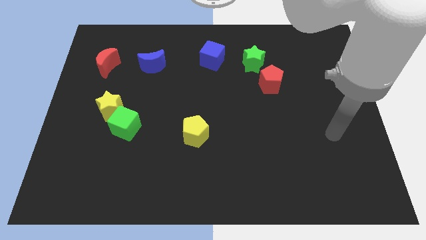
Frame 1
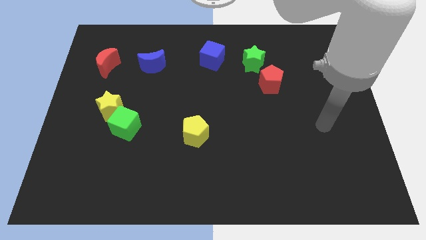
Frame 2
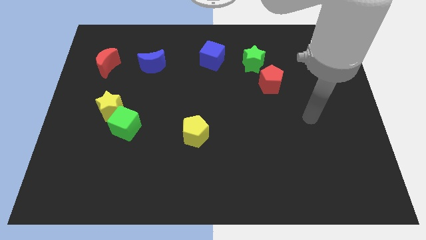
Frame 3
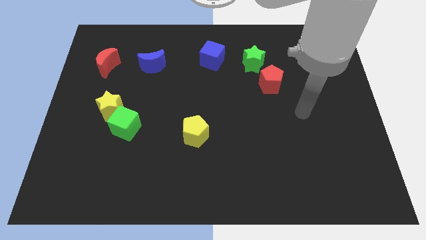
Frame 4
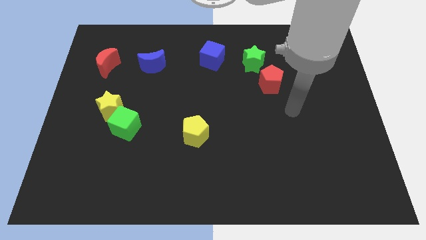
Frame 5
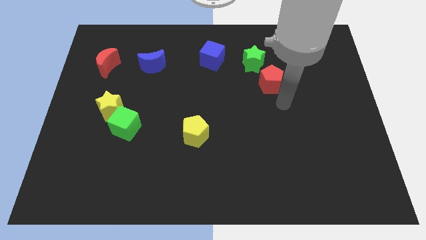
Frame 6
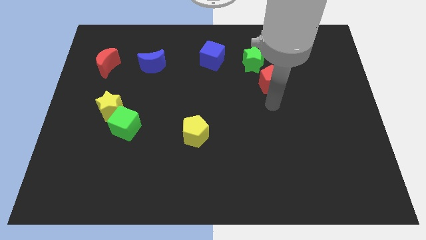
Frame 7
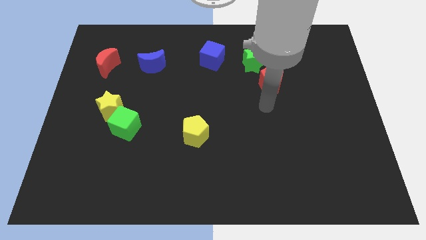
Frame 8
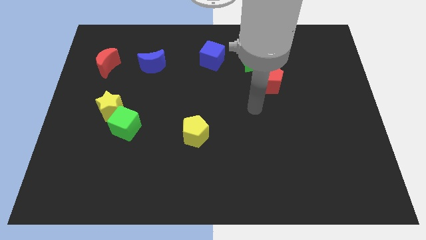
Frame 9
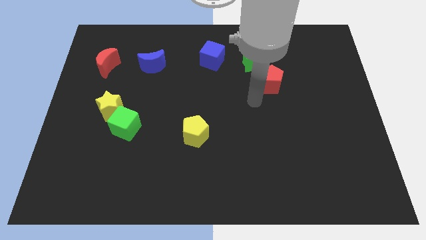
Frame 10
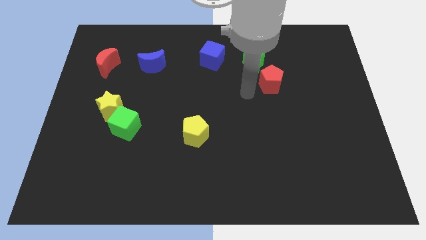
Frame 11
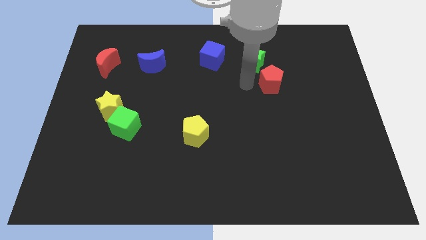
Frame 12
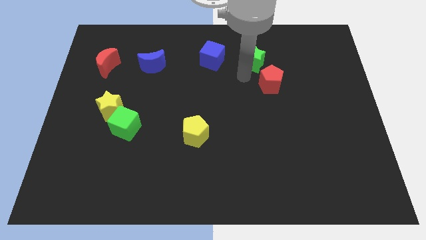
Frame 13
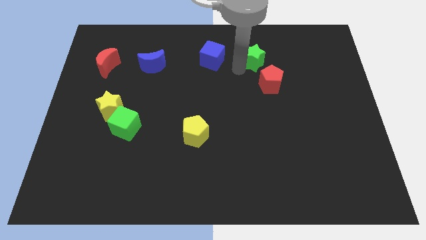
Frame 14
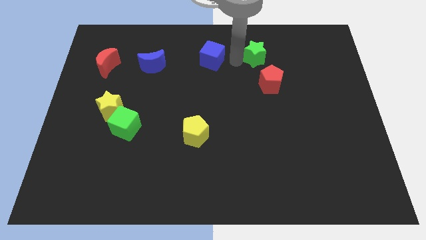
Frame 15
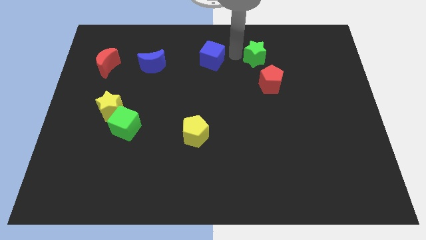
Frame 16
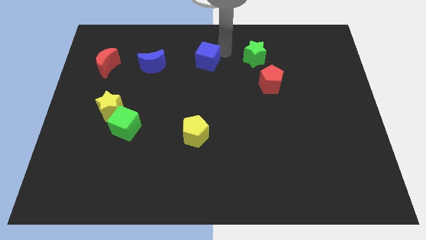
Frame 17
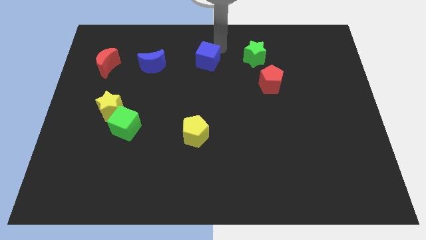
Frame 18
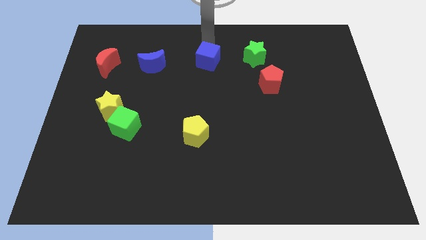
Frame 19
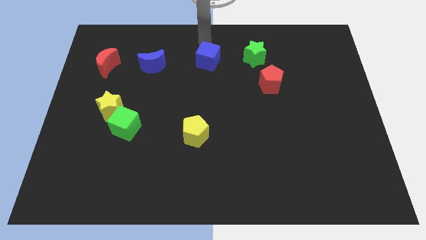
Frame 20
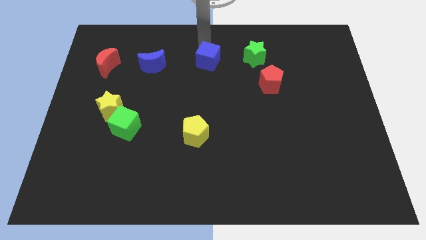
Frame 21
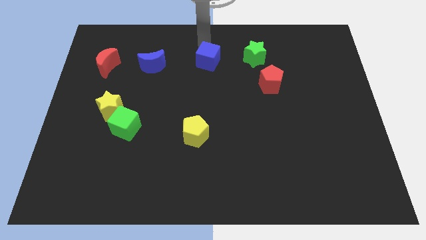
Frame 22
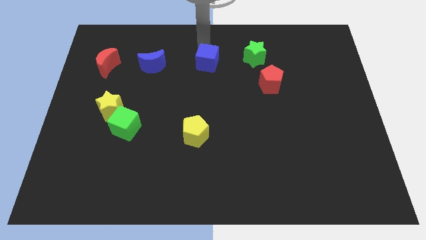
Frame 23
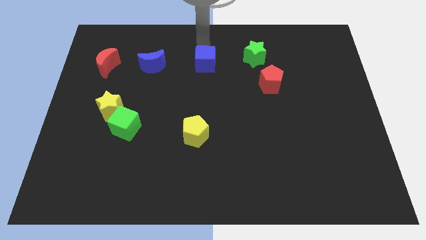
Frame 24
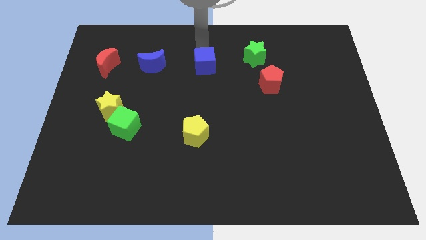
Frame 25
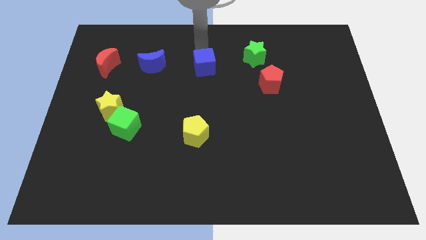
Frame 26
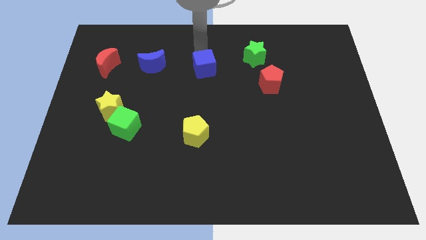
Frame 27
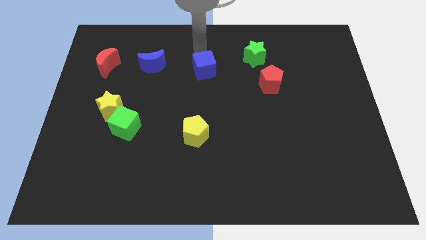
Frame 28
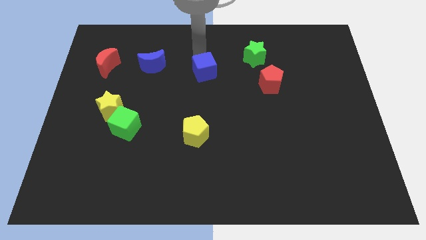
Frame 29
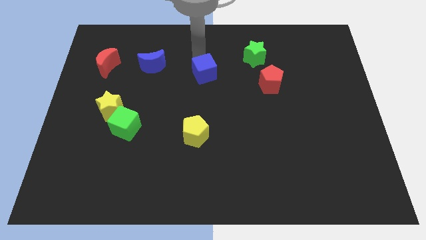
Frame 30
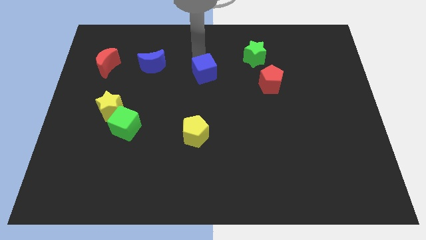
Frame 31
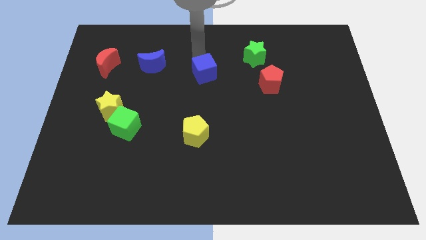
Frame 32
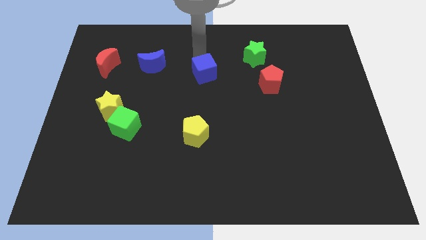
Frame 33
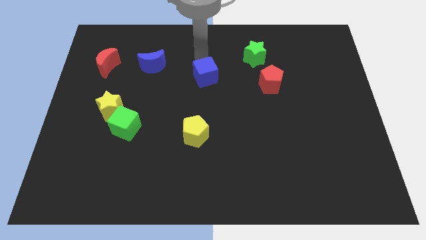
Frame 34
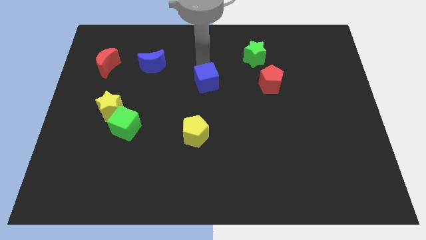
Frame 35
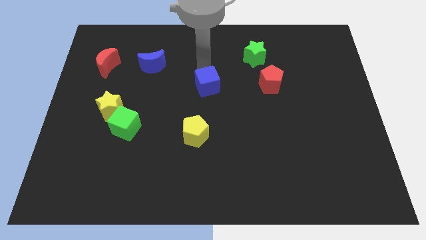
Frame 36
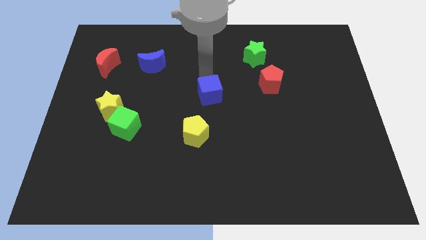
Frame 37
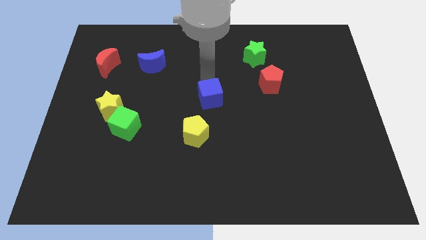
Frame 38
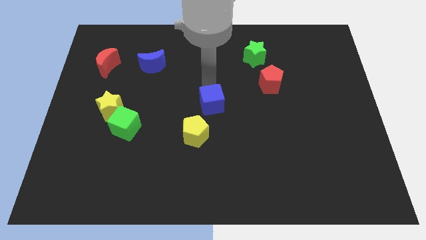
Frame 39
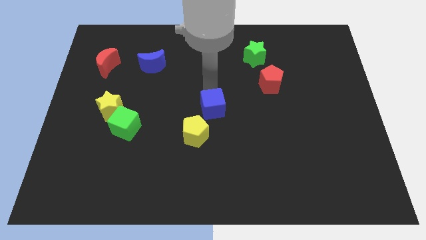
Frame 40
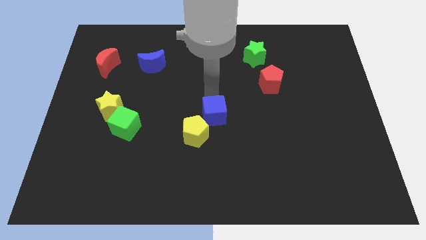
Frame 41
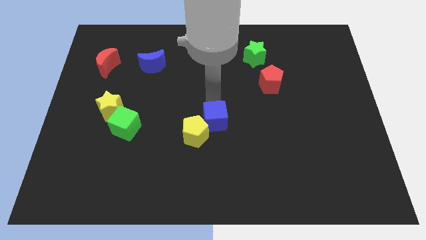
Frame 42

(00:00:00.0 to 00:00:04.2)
push the blue cube downwards

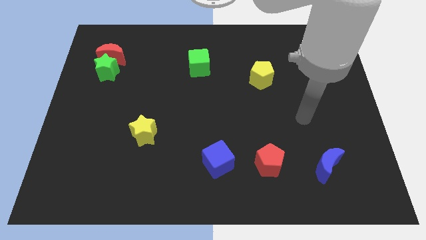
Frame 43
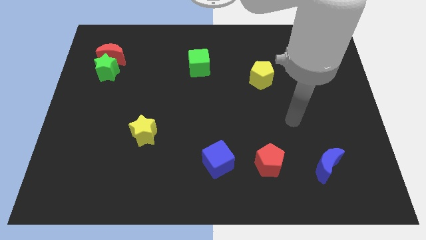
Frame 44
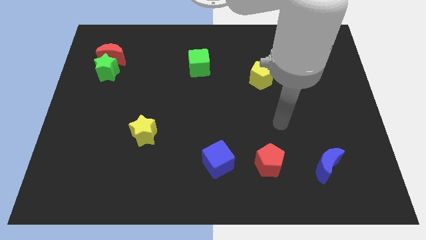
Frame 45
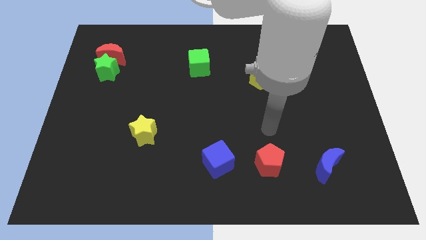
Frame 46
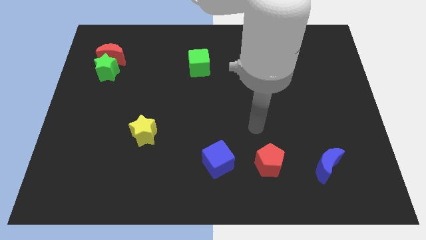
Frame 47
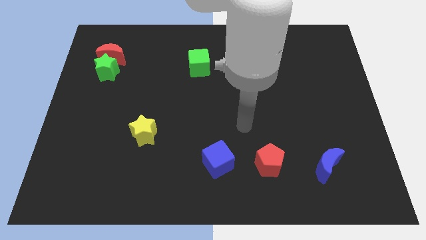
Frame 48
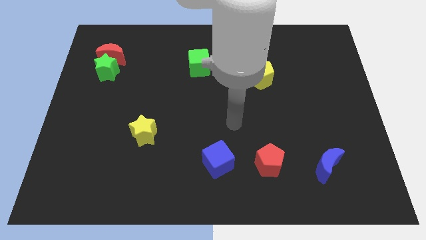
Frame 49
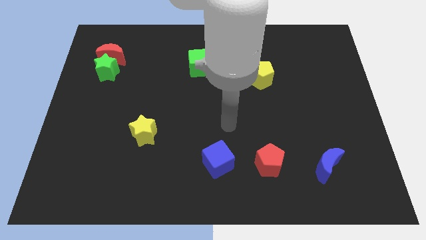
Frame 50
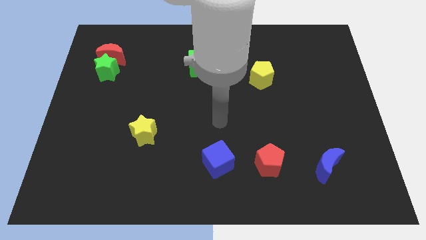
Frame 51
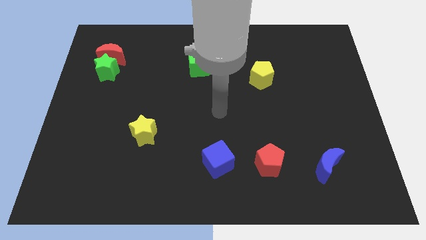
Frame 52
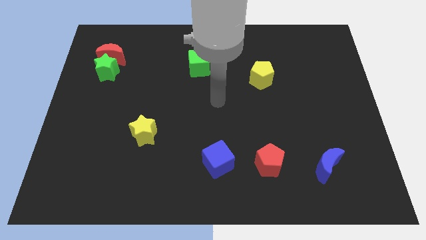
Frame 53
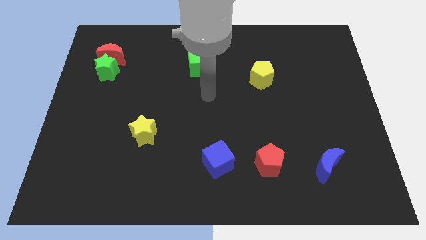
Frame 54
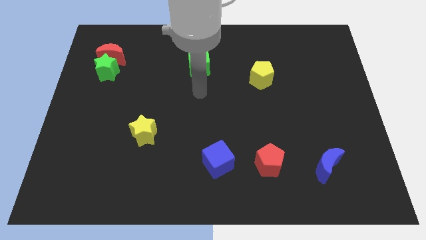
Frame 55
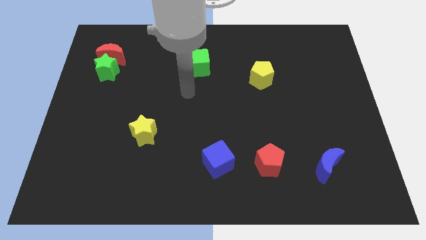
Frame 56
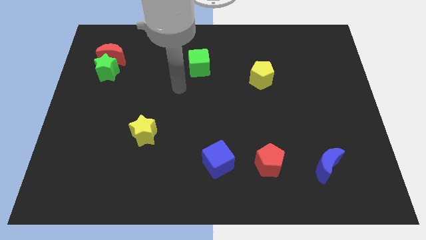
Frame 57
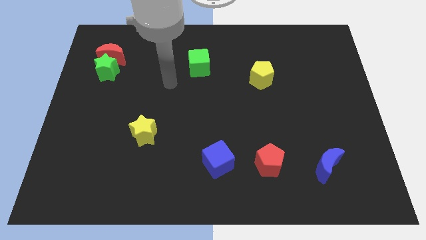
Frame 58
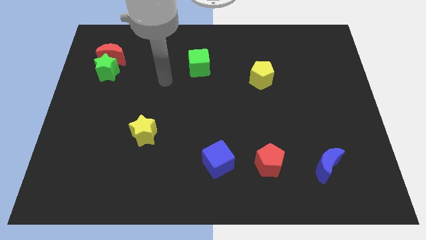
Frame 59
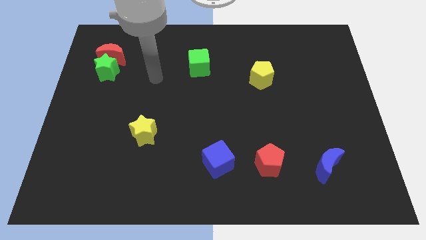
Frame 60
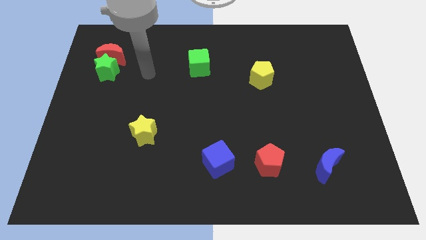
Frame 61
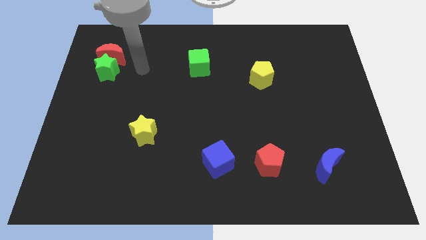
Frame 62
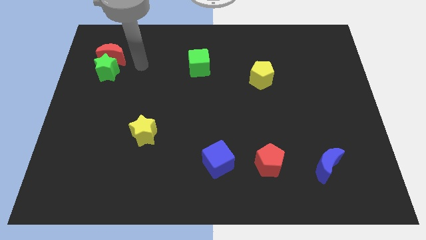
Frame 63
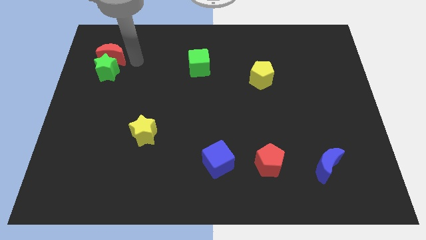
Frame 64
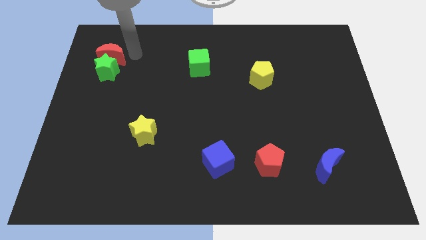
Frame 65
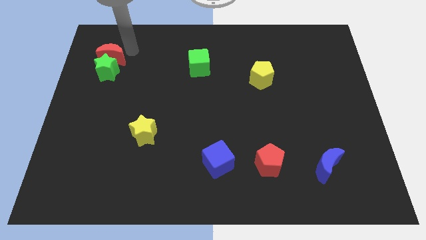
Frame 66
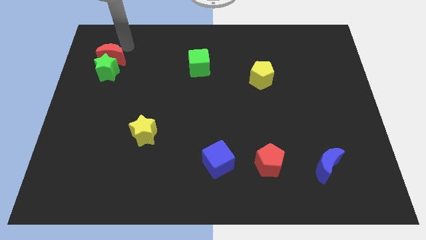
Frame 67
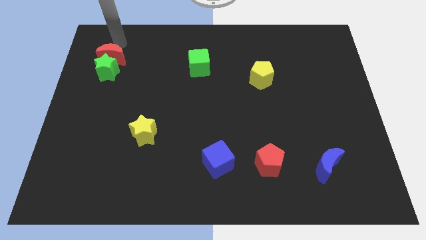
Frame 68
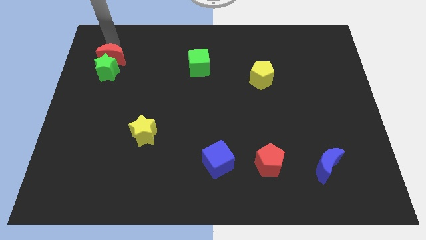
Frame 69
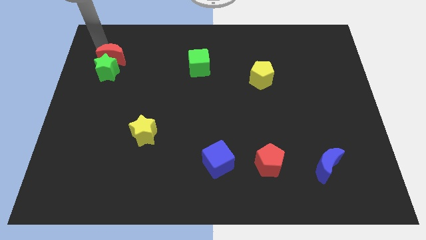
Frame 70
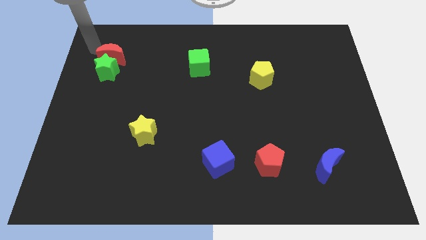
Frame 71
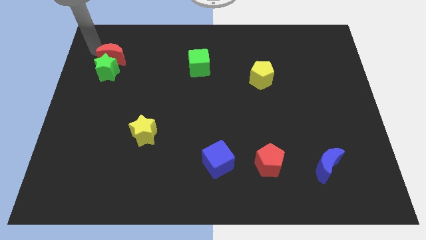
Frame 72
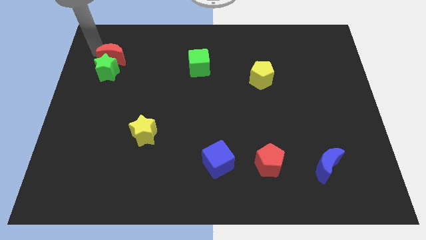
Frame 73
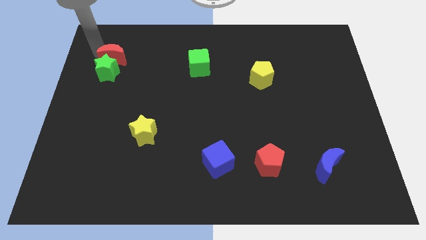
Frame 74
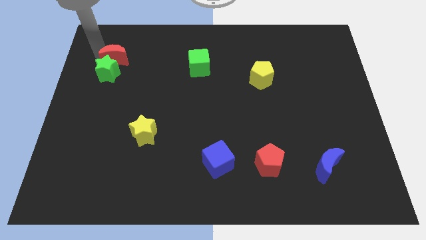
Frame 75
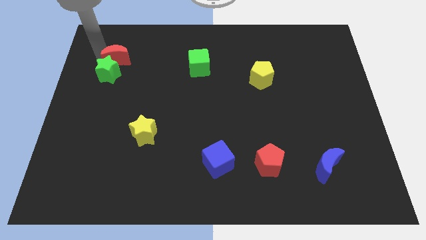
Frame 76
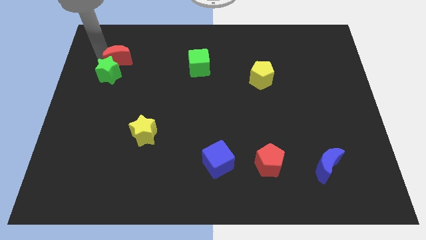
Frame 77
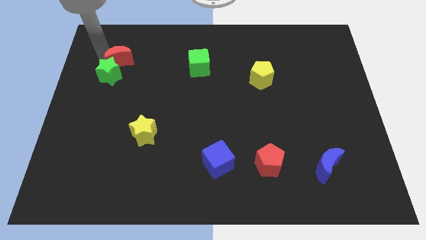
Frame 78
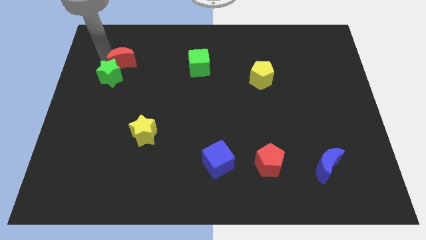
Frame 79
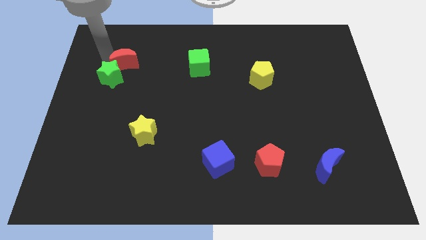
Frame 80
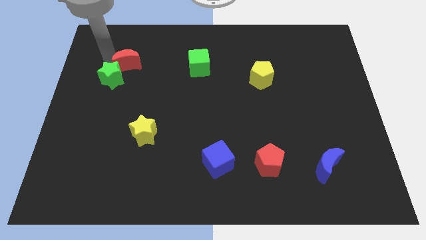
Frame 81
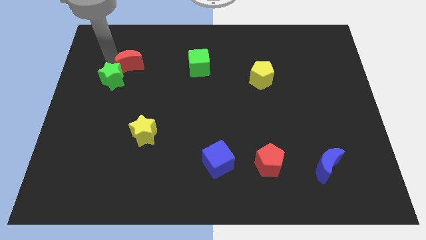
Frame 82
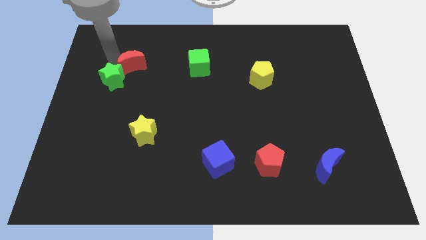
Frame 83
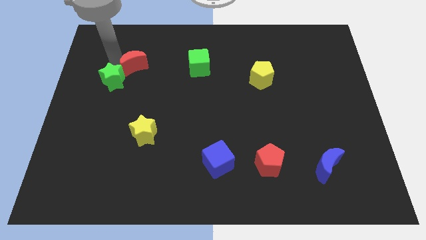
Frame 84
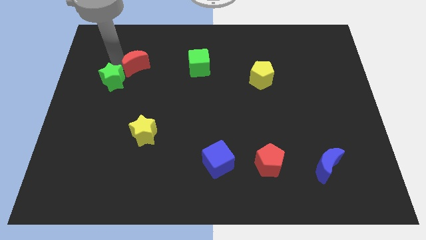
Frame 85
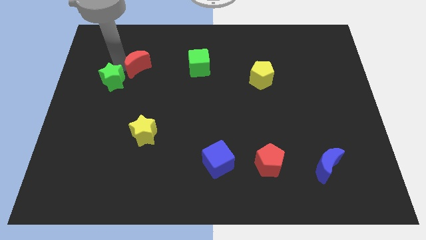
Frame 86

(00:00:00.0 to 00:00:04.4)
slide the red moon diagonally down and to the right a little bit
